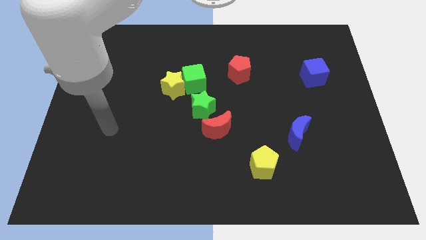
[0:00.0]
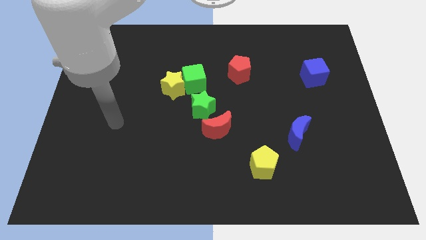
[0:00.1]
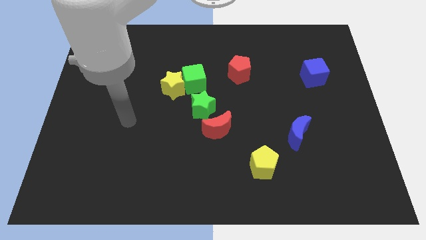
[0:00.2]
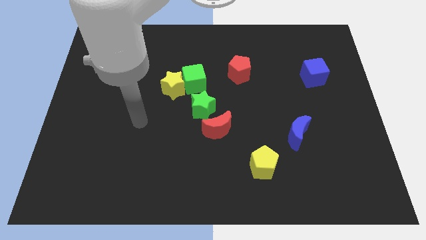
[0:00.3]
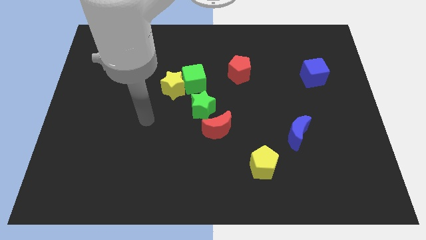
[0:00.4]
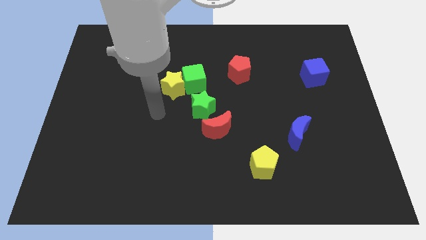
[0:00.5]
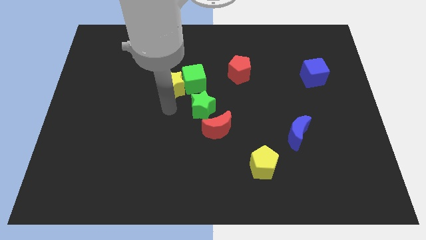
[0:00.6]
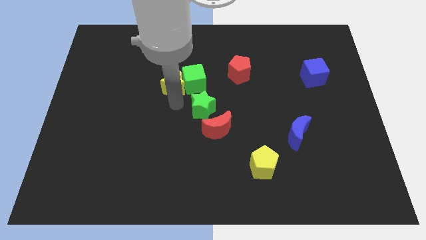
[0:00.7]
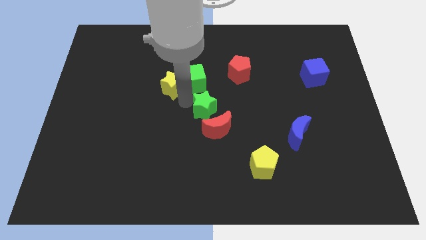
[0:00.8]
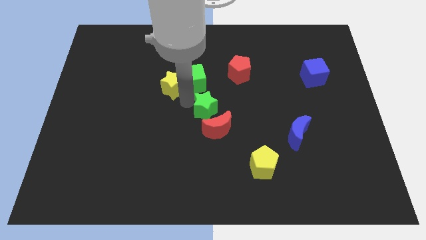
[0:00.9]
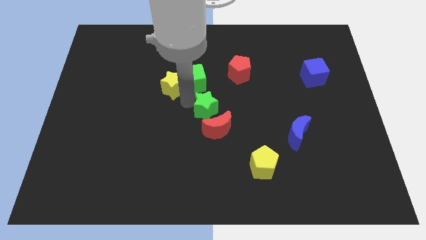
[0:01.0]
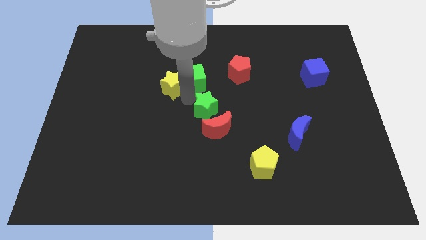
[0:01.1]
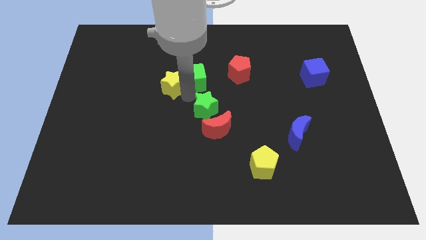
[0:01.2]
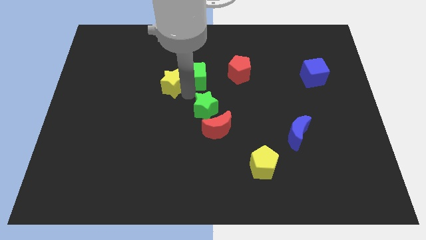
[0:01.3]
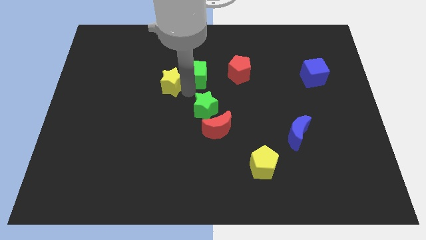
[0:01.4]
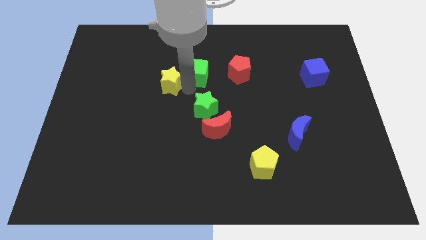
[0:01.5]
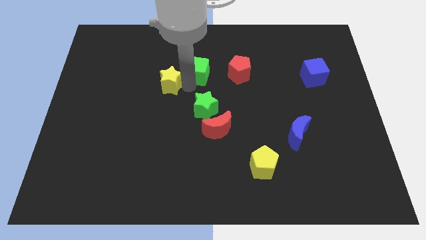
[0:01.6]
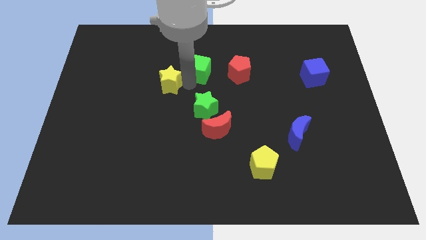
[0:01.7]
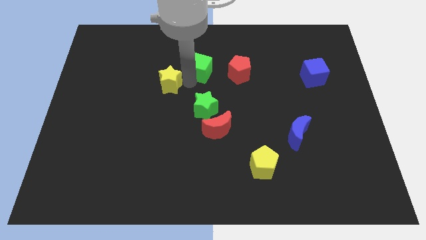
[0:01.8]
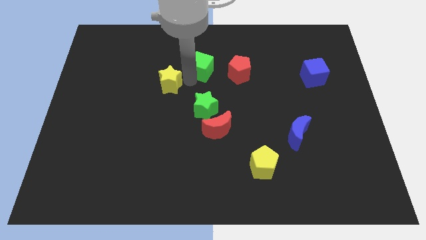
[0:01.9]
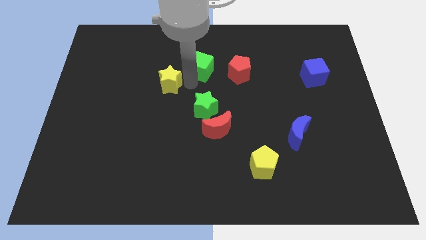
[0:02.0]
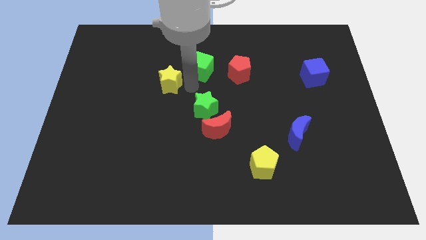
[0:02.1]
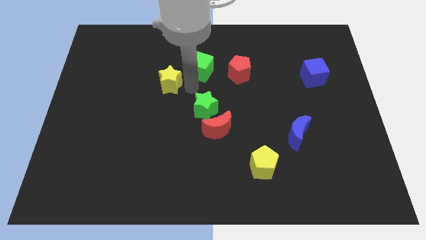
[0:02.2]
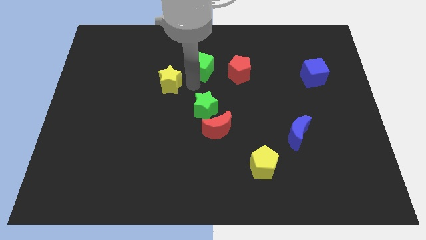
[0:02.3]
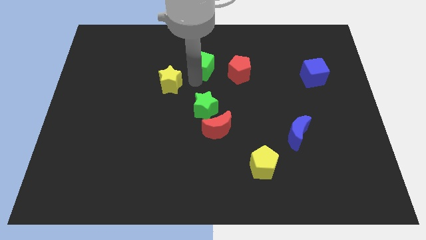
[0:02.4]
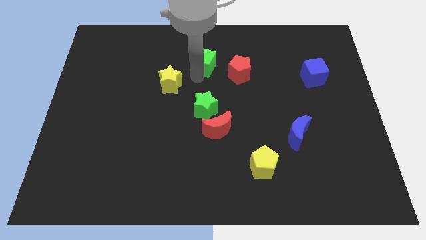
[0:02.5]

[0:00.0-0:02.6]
separate the green cube from the yellow star and green star

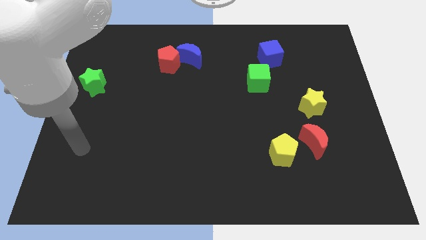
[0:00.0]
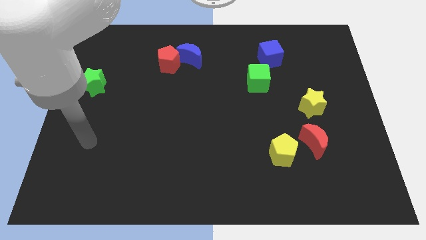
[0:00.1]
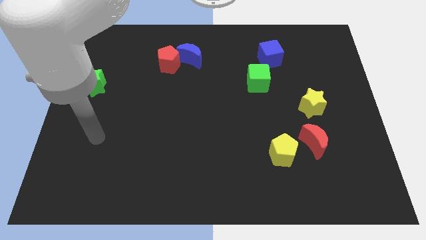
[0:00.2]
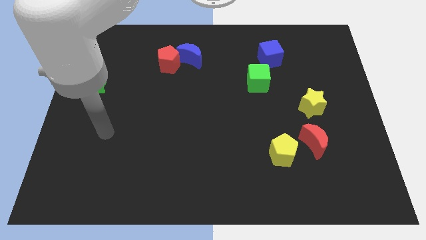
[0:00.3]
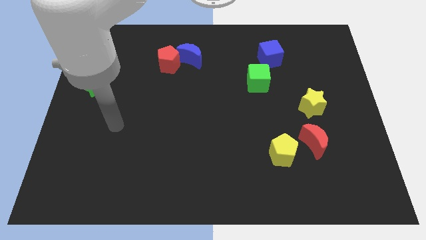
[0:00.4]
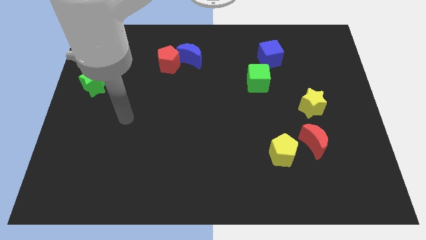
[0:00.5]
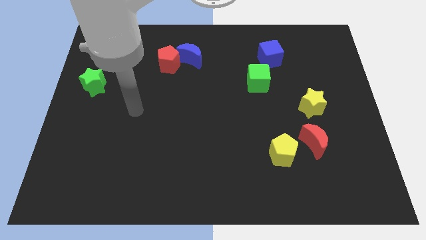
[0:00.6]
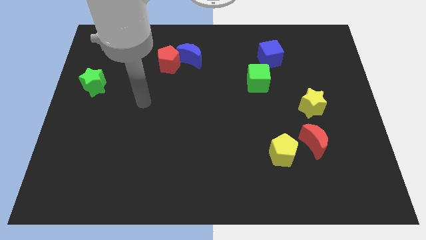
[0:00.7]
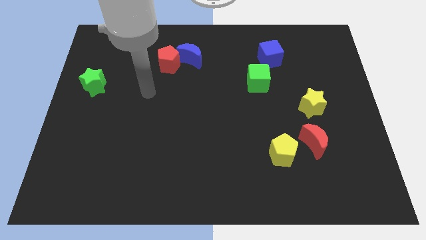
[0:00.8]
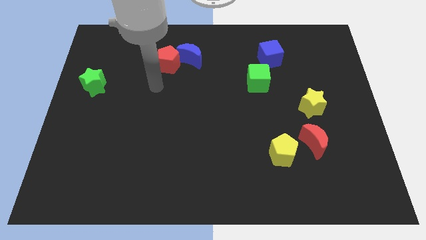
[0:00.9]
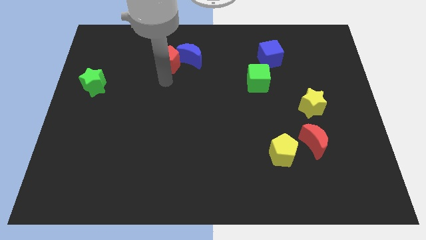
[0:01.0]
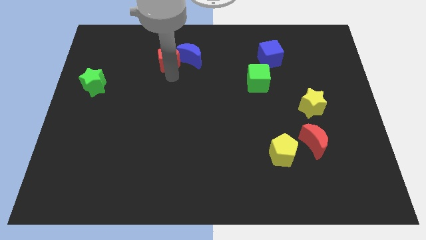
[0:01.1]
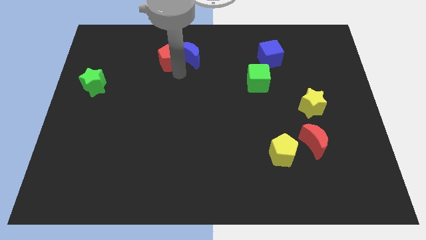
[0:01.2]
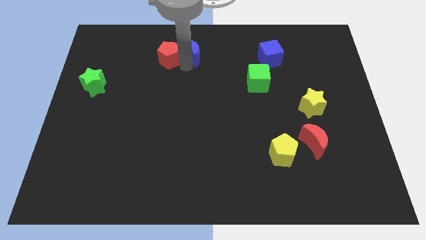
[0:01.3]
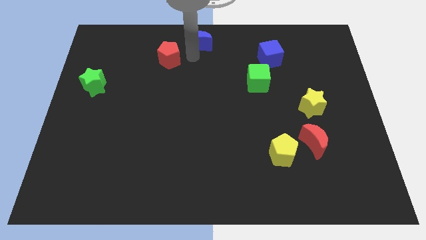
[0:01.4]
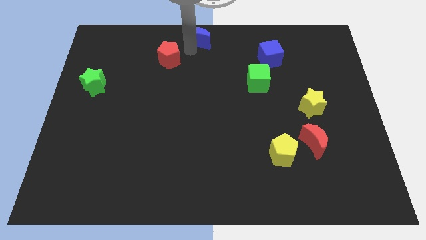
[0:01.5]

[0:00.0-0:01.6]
separate the red pentagon from the blue moon

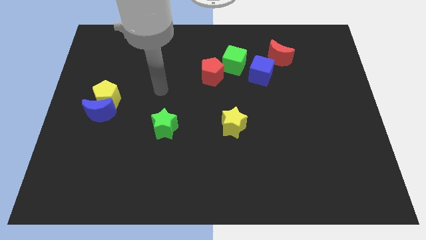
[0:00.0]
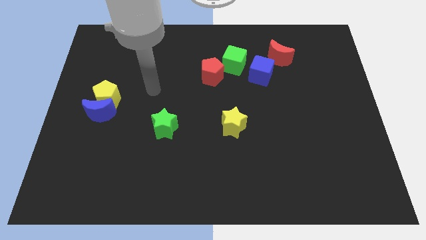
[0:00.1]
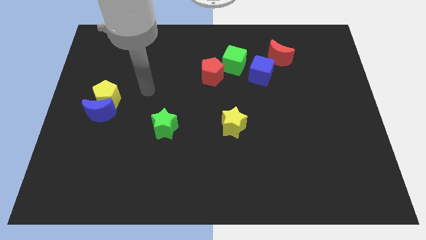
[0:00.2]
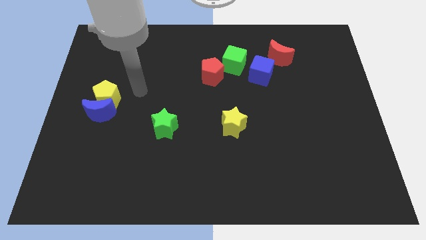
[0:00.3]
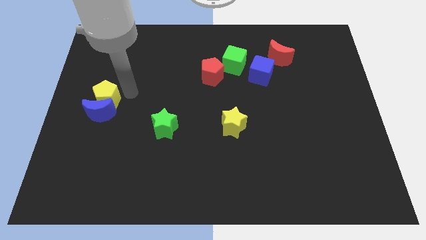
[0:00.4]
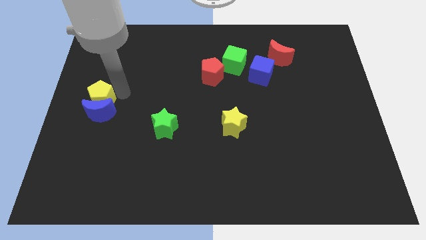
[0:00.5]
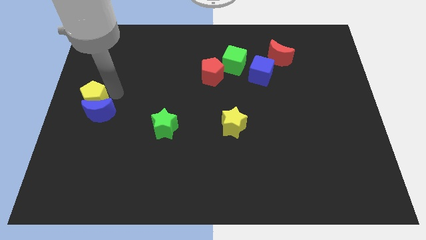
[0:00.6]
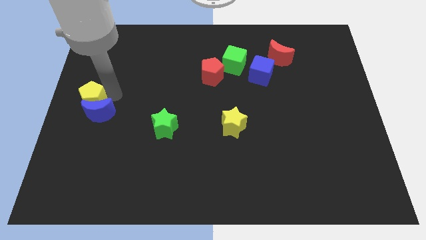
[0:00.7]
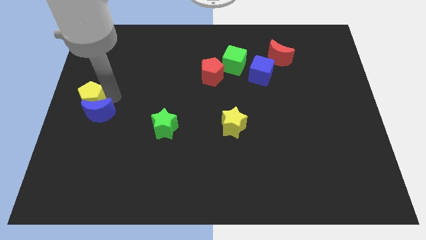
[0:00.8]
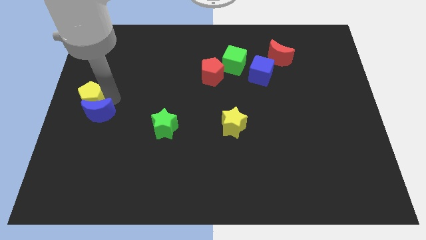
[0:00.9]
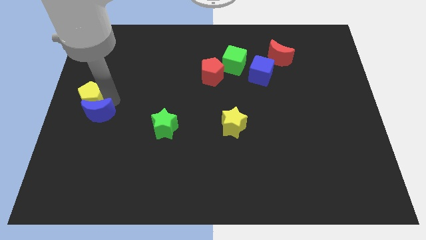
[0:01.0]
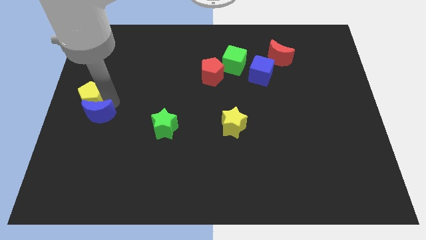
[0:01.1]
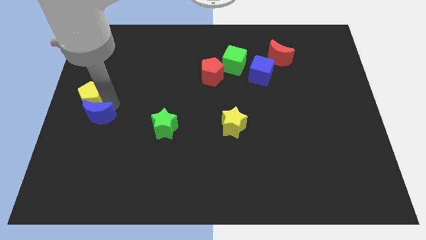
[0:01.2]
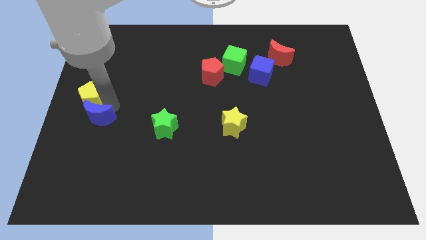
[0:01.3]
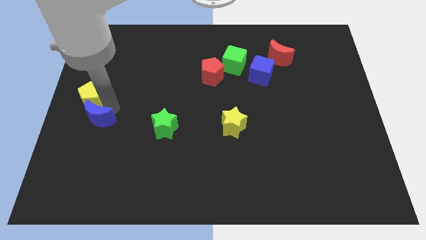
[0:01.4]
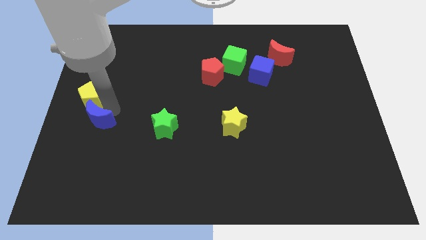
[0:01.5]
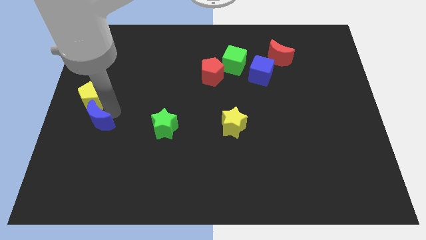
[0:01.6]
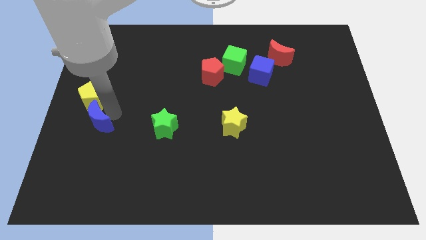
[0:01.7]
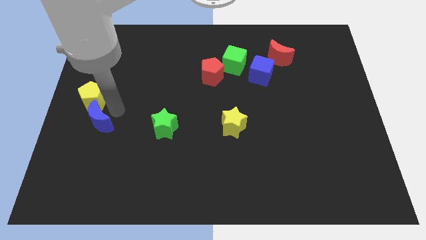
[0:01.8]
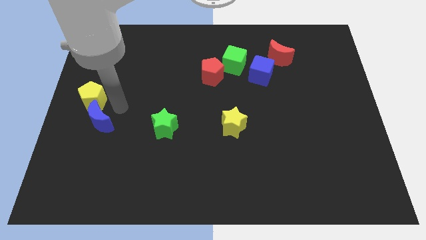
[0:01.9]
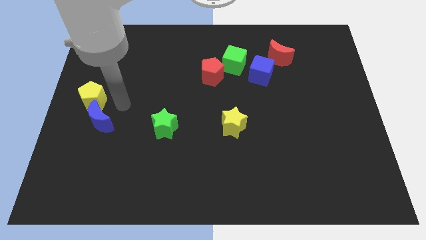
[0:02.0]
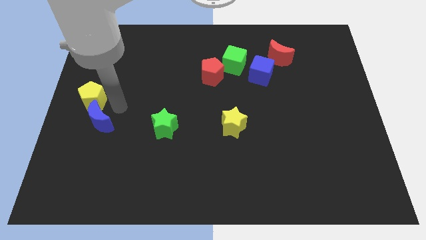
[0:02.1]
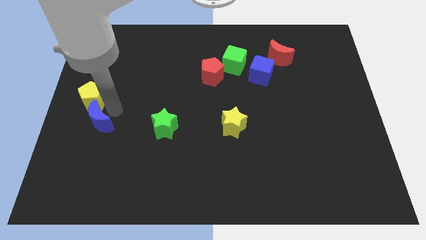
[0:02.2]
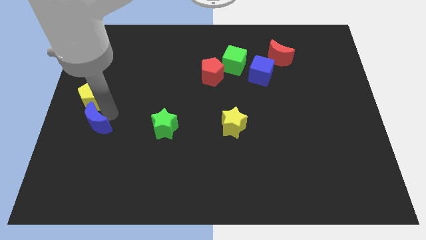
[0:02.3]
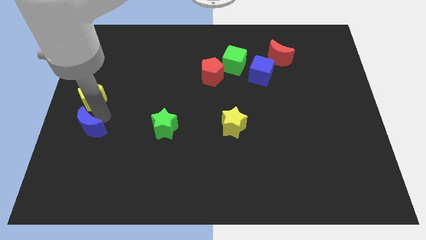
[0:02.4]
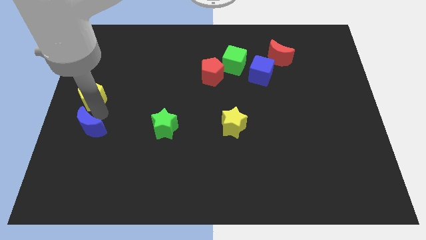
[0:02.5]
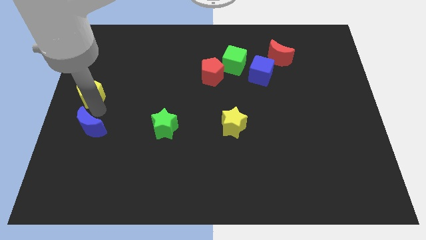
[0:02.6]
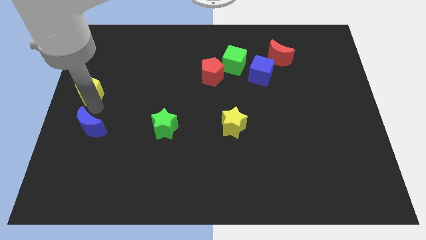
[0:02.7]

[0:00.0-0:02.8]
separate the blue moon from the yellow pentagon

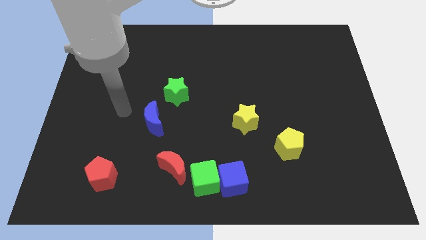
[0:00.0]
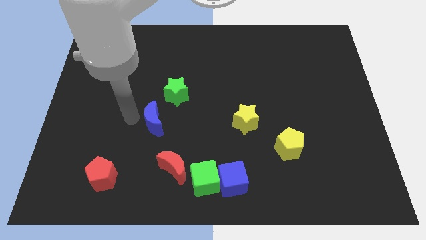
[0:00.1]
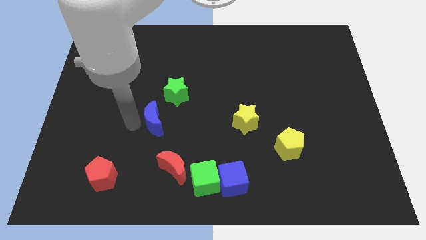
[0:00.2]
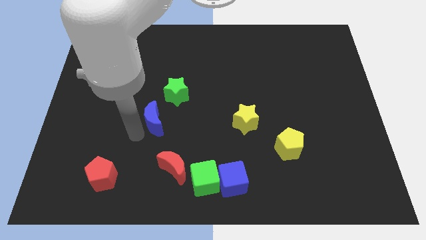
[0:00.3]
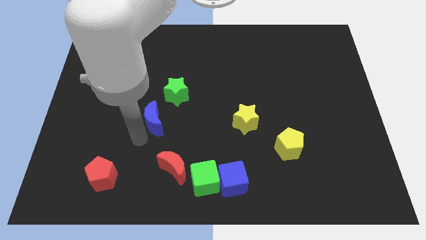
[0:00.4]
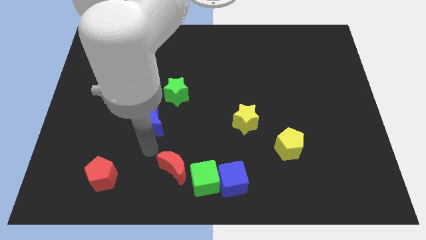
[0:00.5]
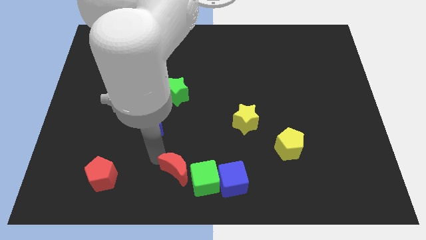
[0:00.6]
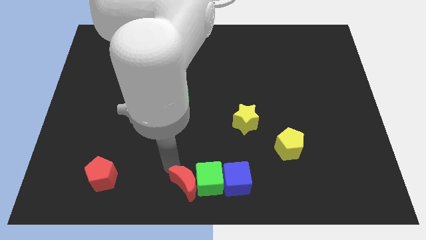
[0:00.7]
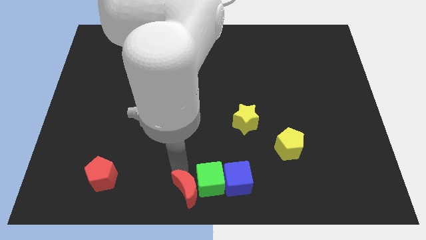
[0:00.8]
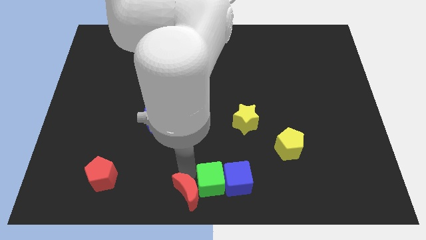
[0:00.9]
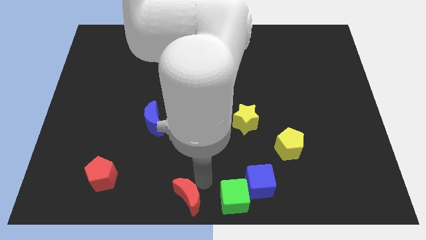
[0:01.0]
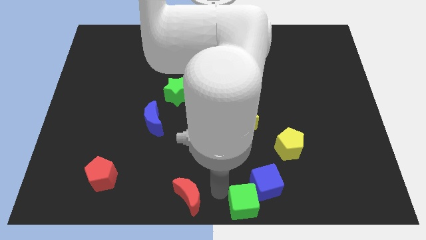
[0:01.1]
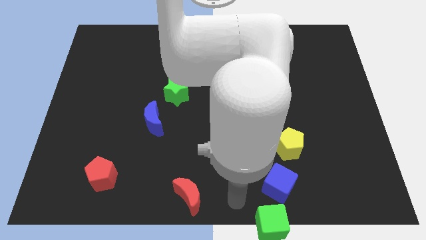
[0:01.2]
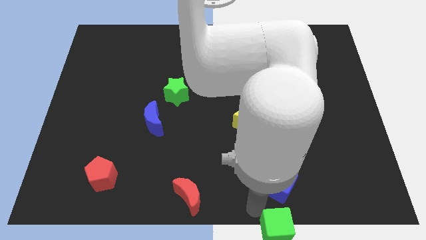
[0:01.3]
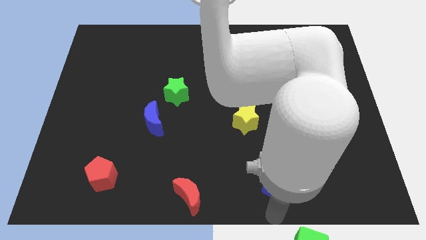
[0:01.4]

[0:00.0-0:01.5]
move the blue cube away from the green cube

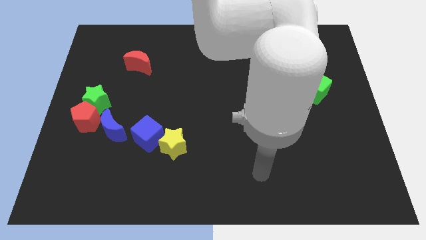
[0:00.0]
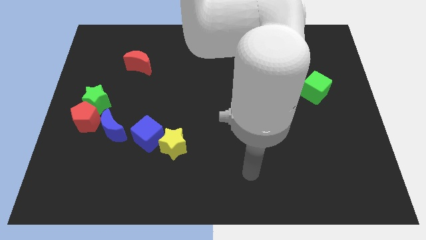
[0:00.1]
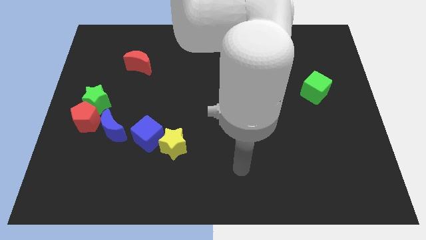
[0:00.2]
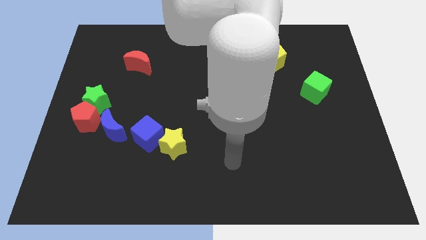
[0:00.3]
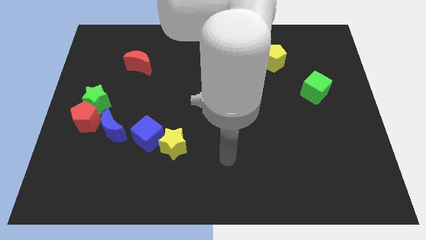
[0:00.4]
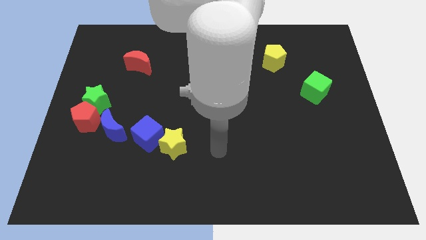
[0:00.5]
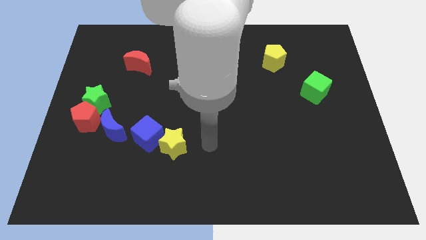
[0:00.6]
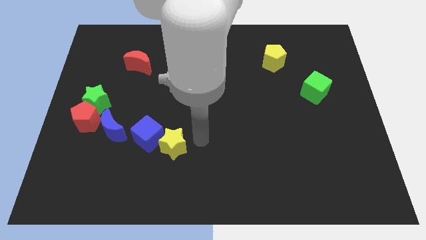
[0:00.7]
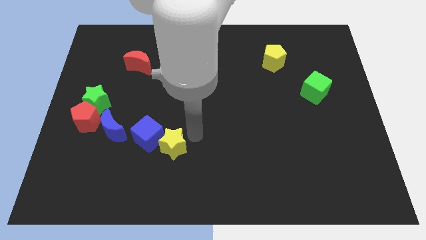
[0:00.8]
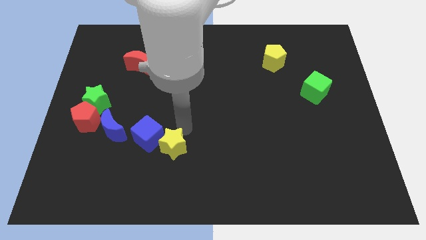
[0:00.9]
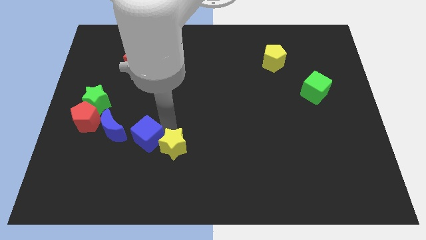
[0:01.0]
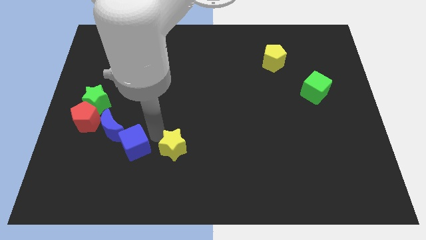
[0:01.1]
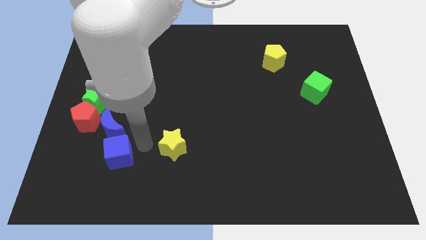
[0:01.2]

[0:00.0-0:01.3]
separate the yellow star from the blue cube
